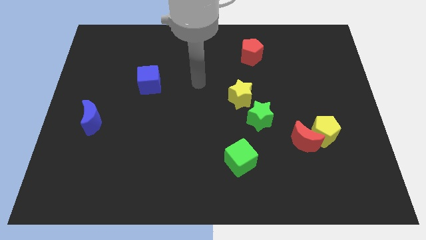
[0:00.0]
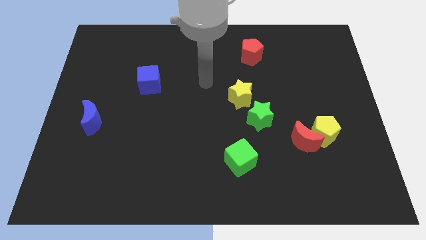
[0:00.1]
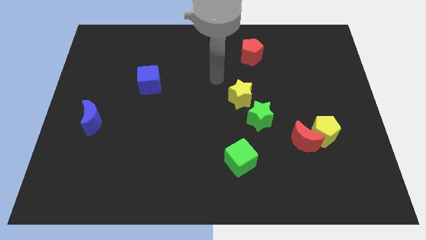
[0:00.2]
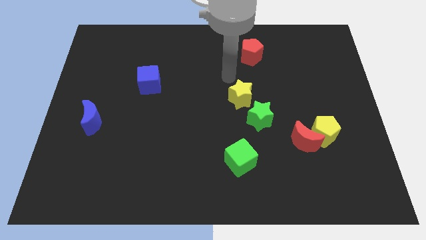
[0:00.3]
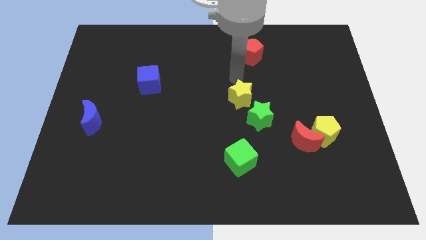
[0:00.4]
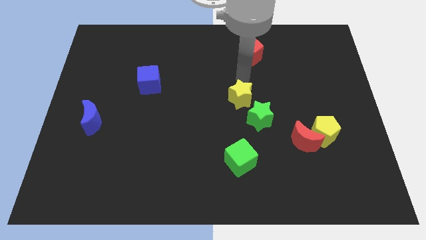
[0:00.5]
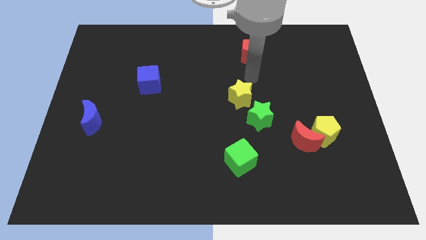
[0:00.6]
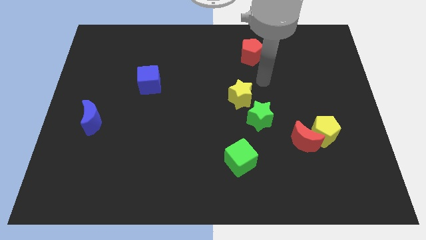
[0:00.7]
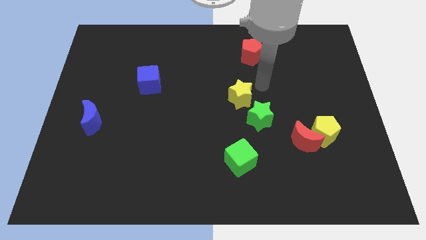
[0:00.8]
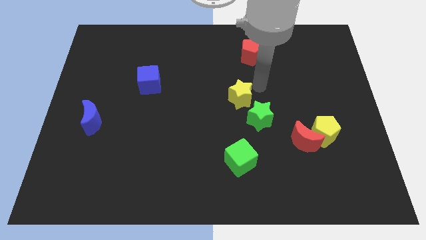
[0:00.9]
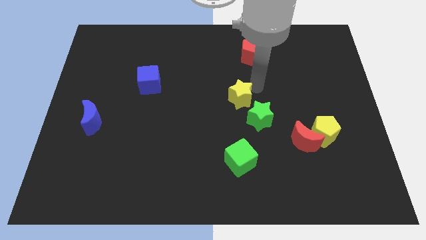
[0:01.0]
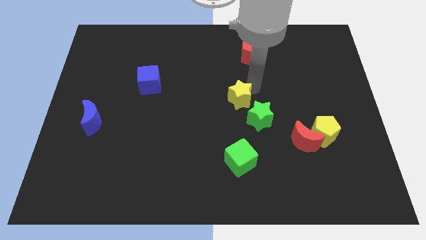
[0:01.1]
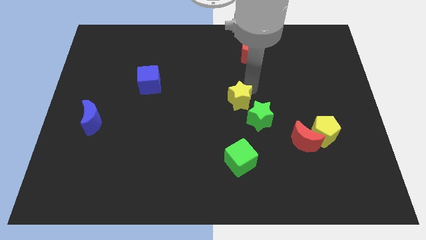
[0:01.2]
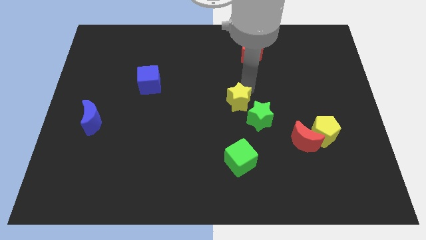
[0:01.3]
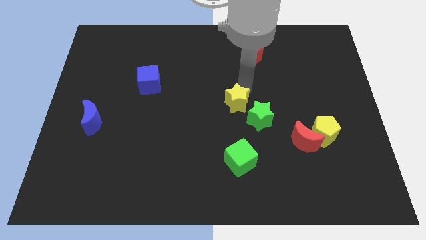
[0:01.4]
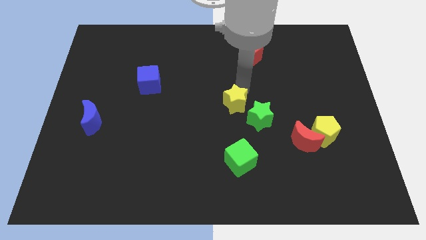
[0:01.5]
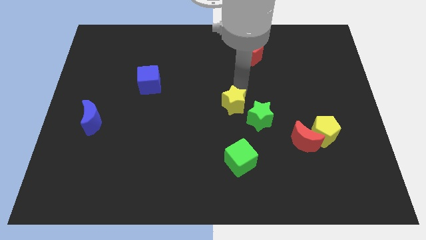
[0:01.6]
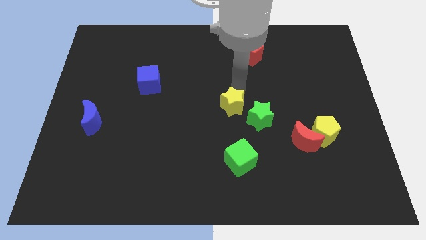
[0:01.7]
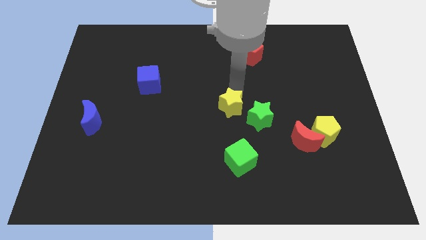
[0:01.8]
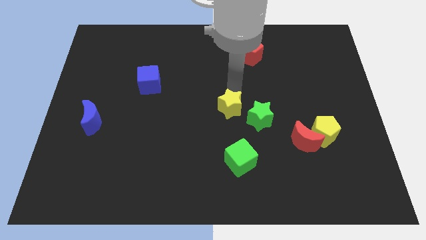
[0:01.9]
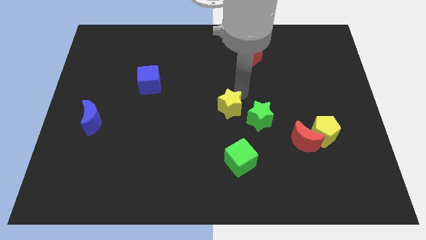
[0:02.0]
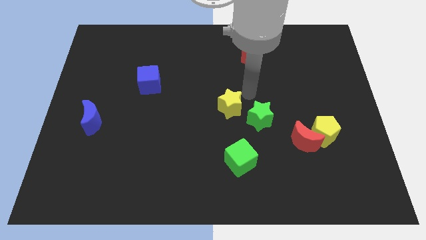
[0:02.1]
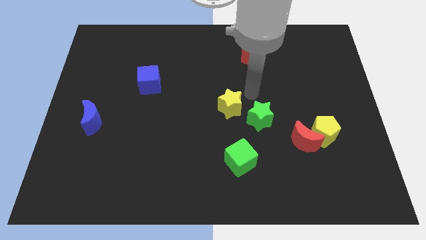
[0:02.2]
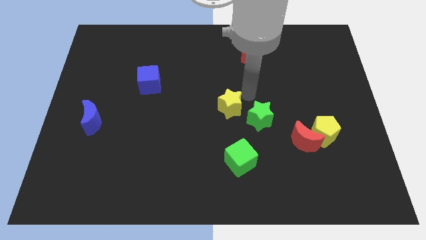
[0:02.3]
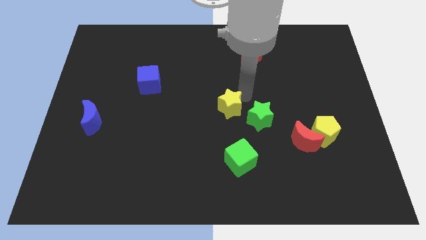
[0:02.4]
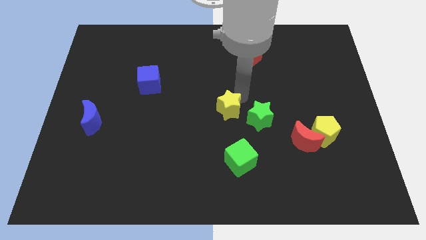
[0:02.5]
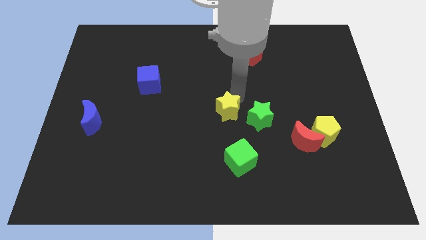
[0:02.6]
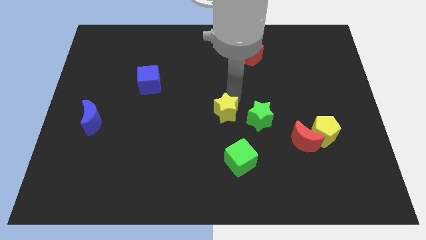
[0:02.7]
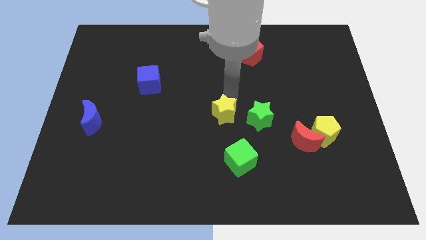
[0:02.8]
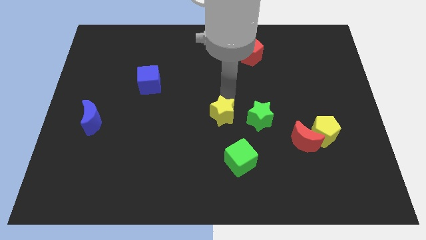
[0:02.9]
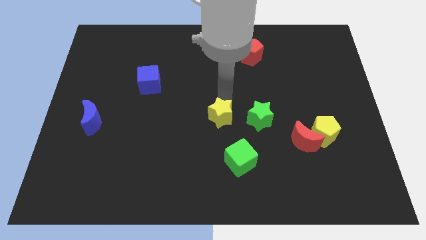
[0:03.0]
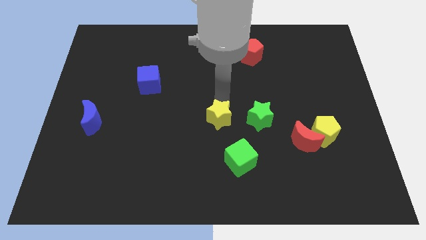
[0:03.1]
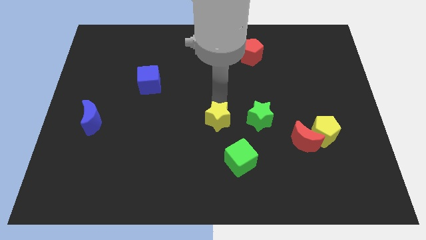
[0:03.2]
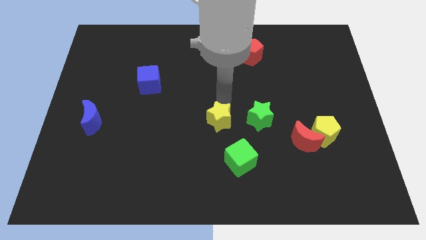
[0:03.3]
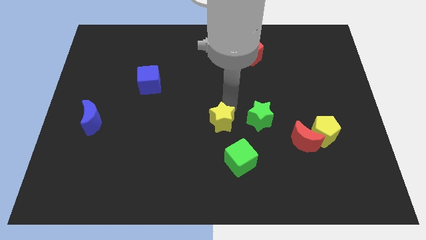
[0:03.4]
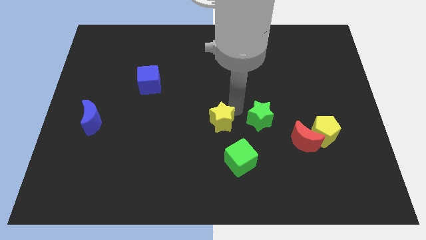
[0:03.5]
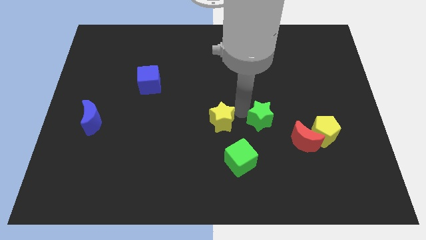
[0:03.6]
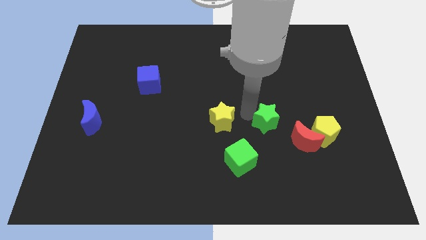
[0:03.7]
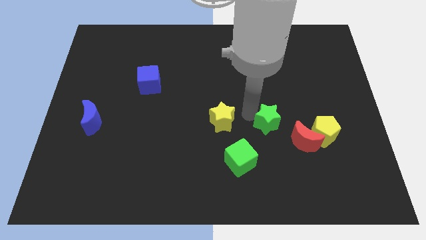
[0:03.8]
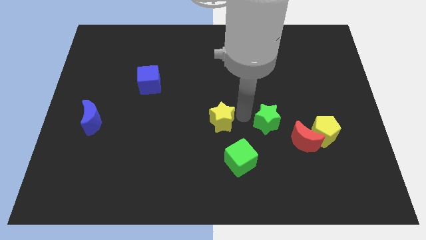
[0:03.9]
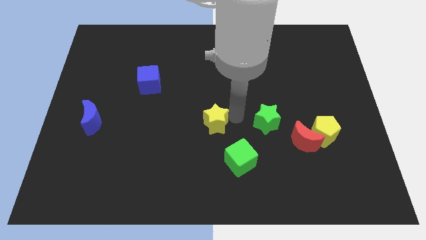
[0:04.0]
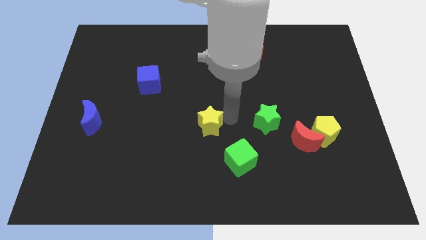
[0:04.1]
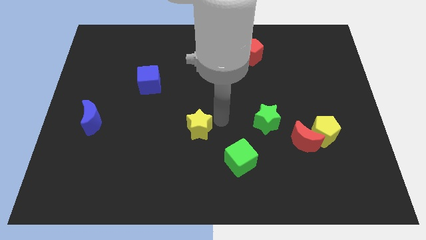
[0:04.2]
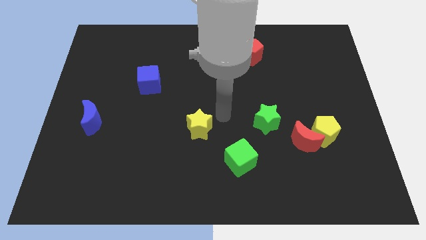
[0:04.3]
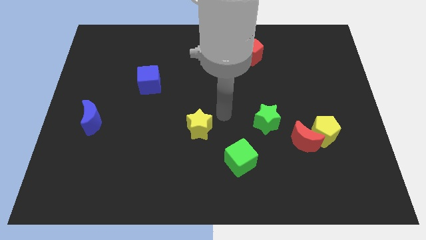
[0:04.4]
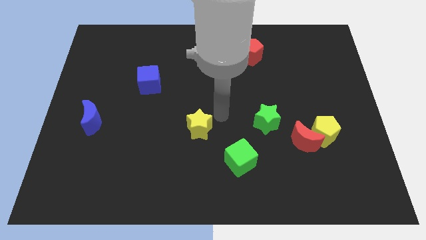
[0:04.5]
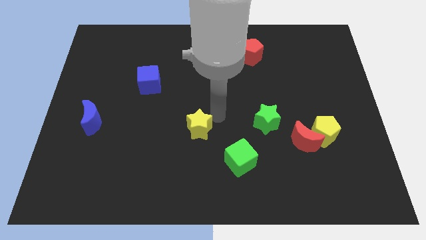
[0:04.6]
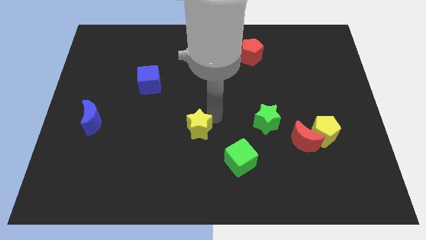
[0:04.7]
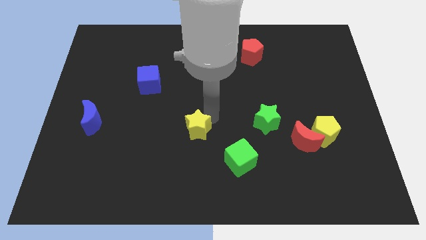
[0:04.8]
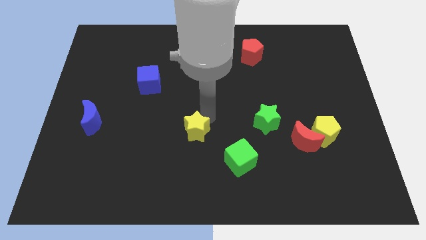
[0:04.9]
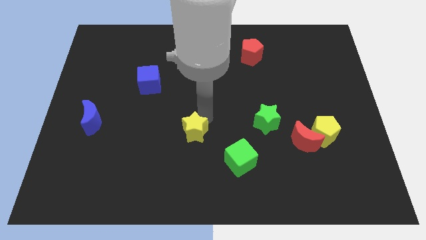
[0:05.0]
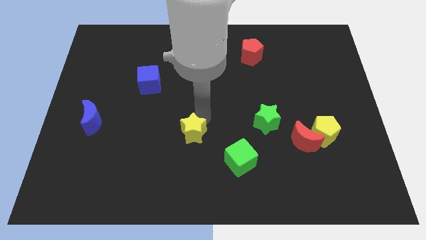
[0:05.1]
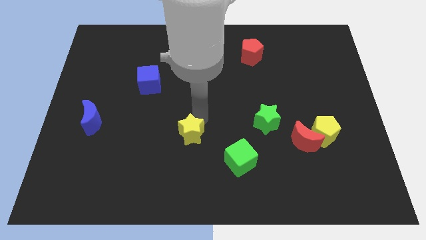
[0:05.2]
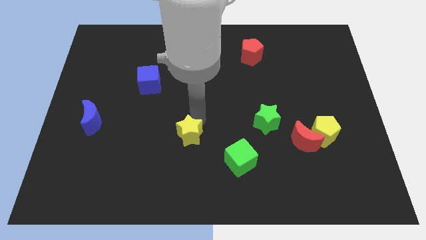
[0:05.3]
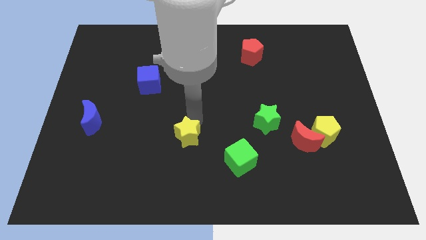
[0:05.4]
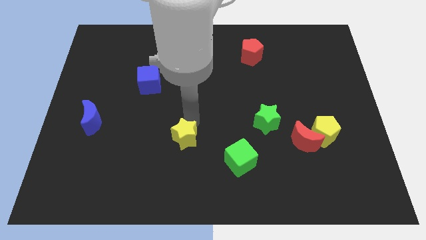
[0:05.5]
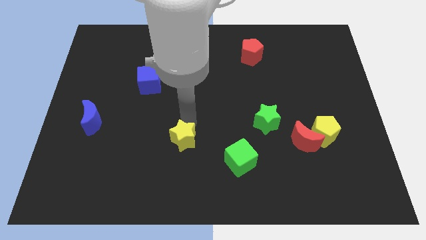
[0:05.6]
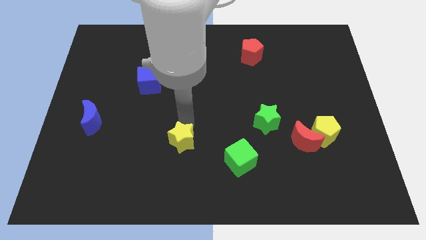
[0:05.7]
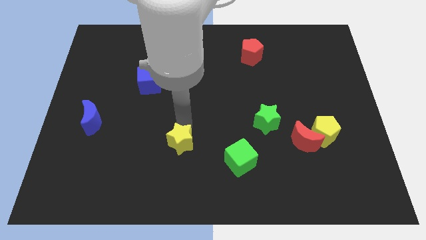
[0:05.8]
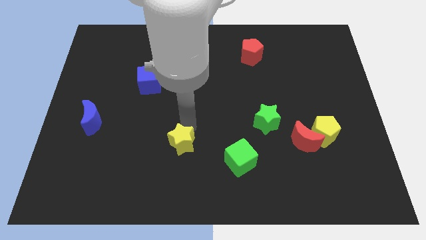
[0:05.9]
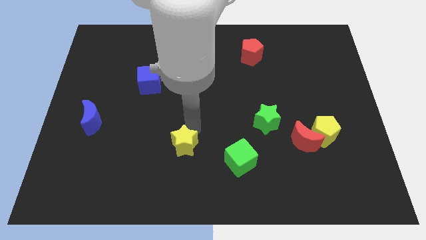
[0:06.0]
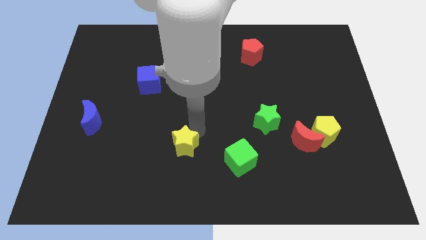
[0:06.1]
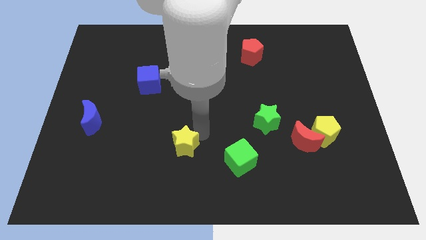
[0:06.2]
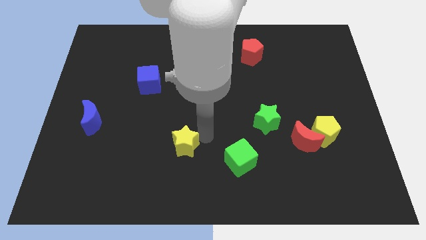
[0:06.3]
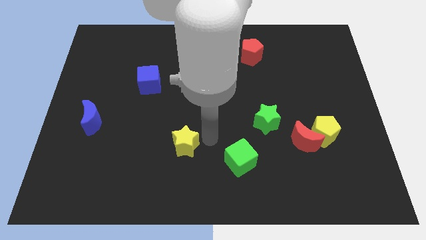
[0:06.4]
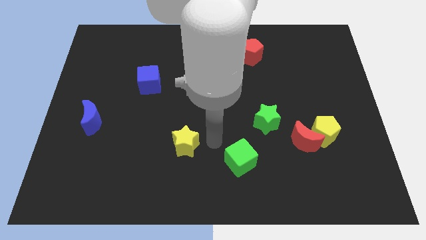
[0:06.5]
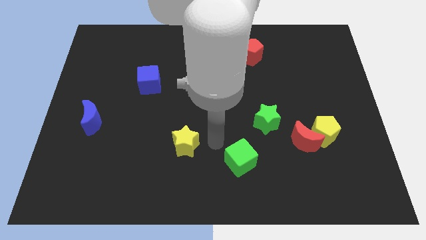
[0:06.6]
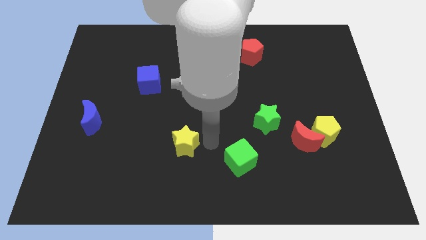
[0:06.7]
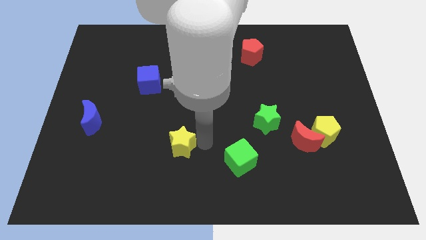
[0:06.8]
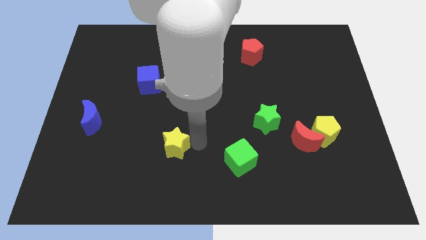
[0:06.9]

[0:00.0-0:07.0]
push the yellow star downwards and to the left diagonally

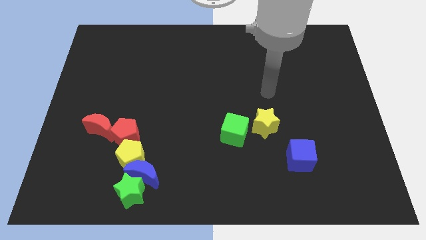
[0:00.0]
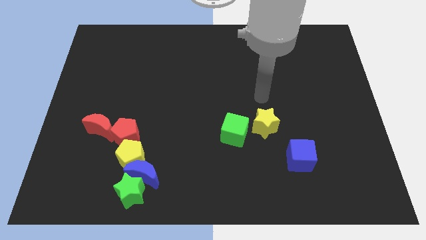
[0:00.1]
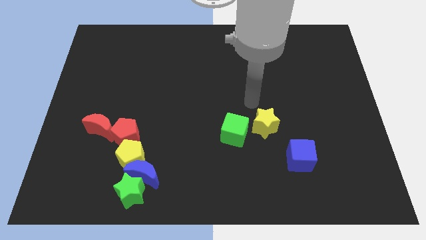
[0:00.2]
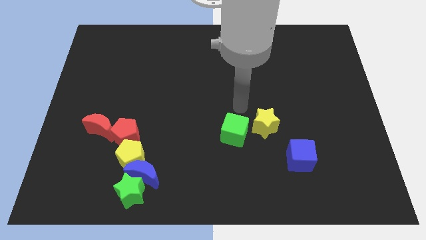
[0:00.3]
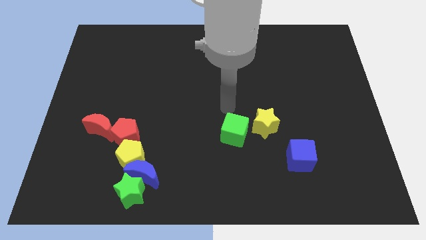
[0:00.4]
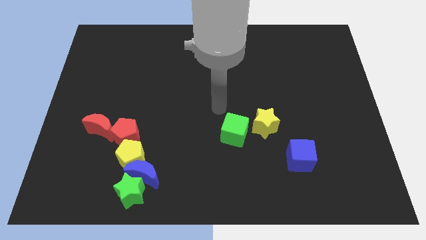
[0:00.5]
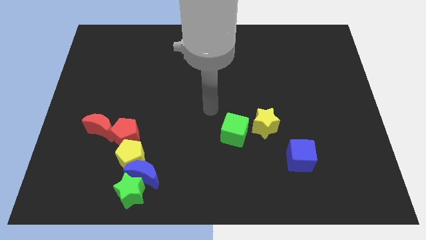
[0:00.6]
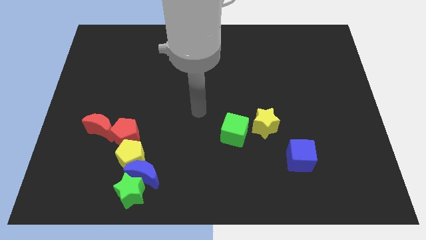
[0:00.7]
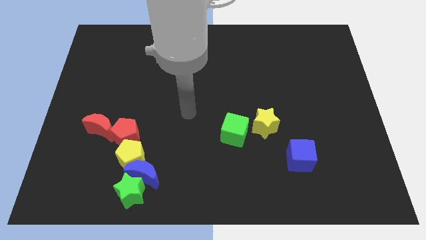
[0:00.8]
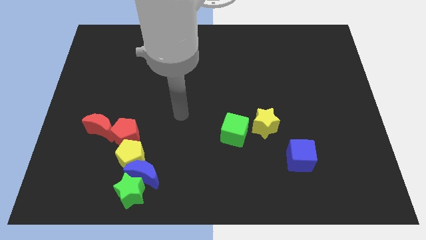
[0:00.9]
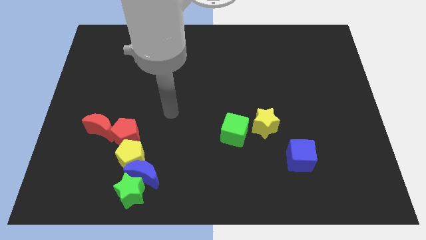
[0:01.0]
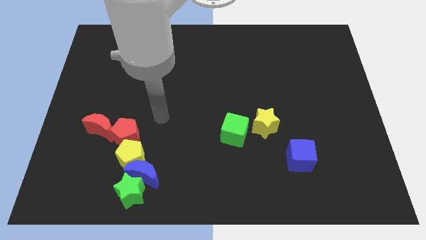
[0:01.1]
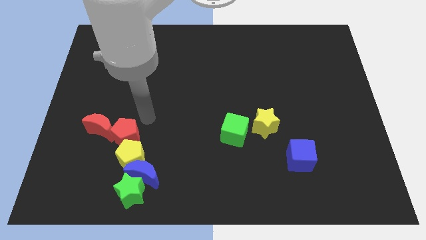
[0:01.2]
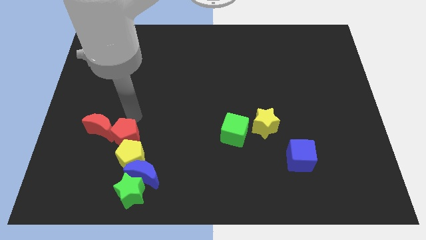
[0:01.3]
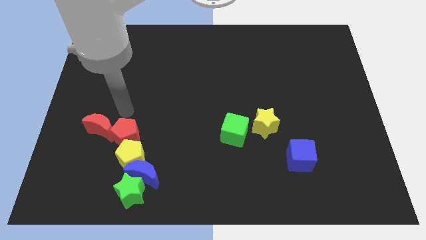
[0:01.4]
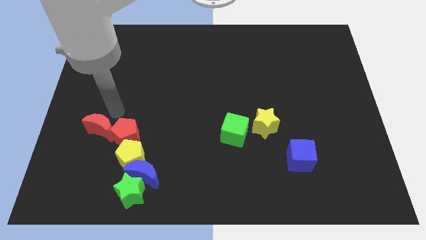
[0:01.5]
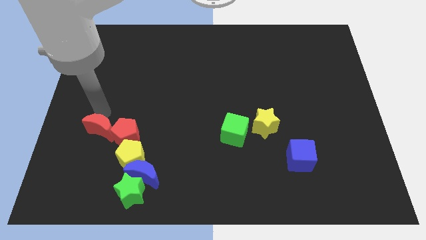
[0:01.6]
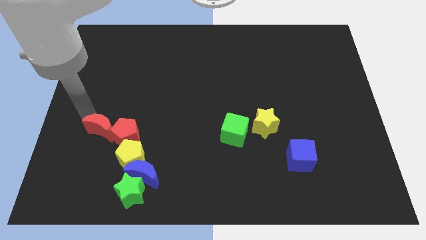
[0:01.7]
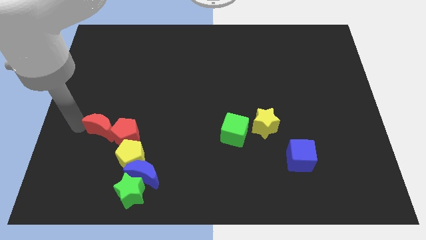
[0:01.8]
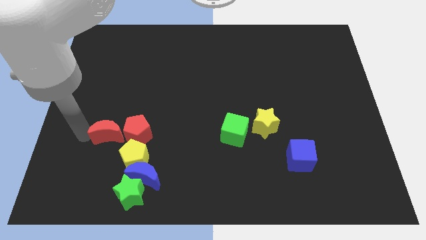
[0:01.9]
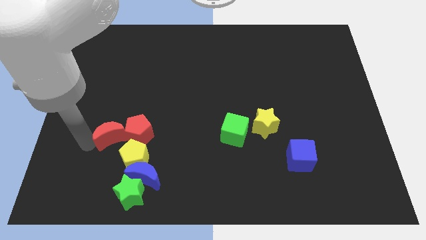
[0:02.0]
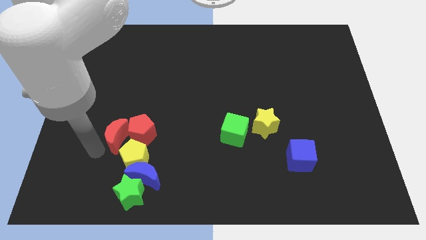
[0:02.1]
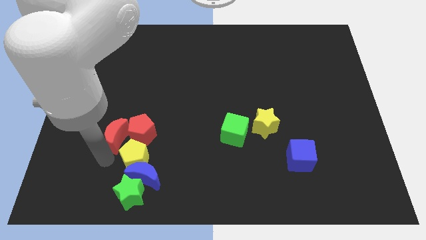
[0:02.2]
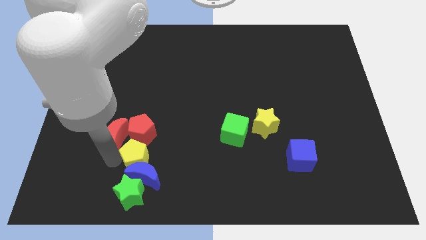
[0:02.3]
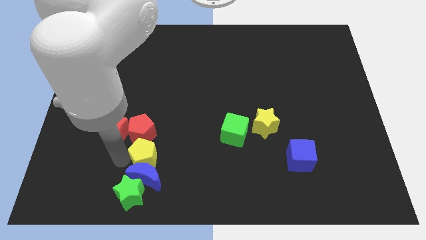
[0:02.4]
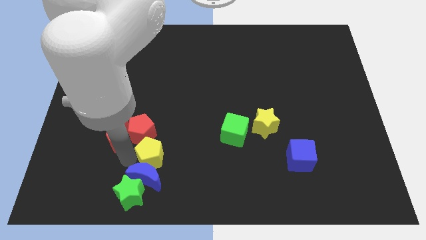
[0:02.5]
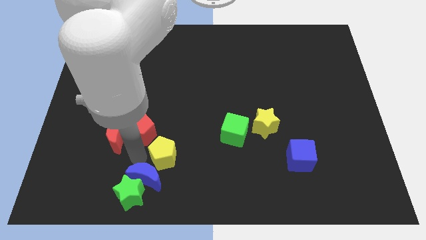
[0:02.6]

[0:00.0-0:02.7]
slightly push the yellow pentagon to the right
